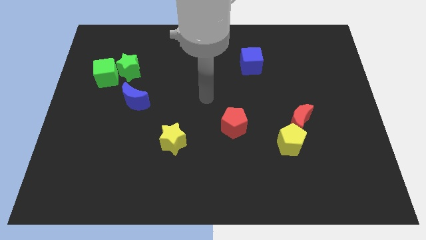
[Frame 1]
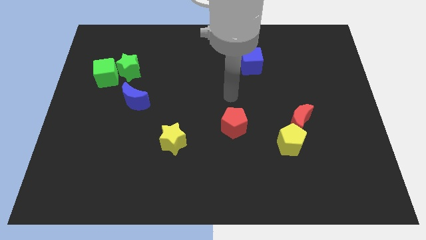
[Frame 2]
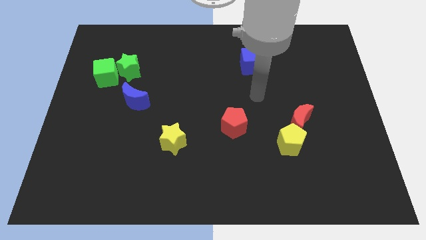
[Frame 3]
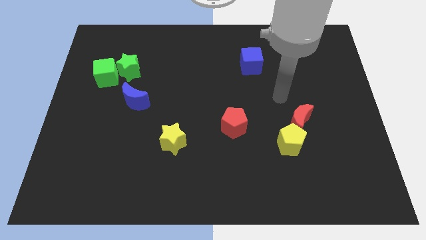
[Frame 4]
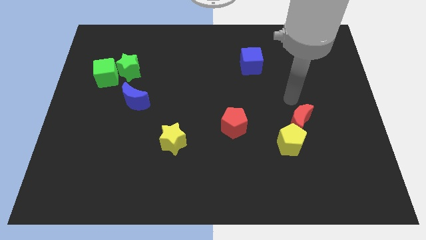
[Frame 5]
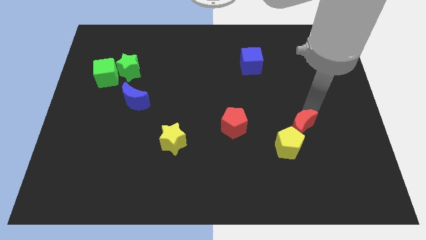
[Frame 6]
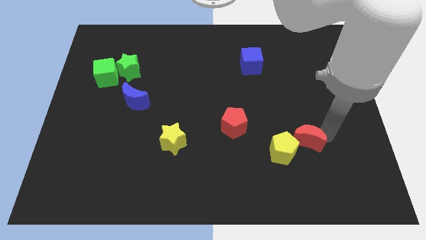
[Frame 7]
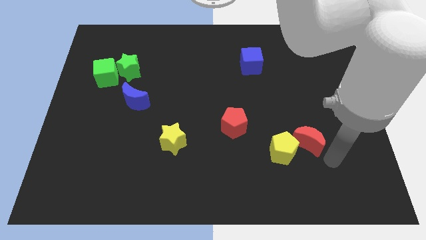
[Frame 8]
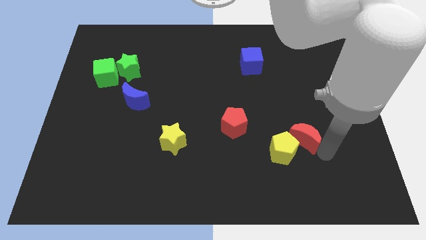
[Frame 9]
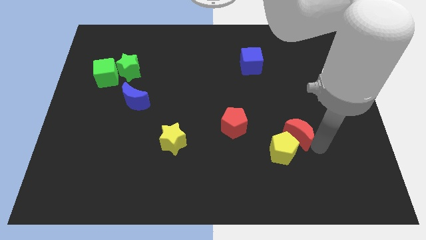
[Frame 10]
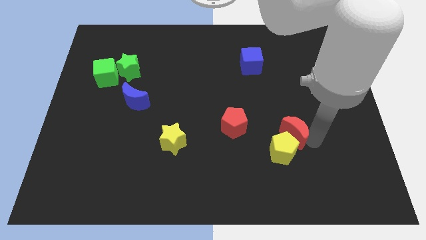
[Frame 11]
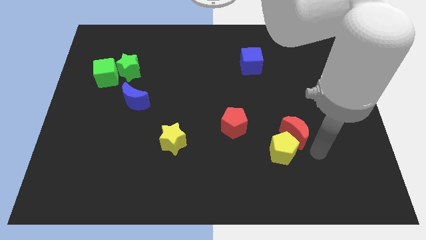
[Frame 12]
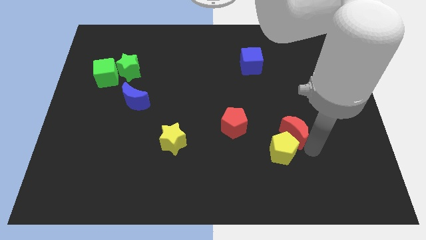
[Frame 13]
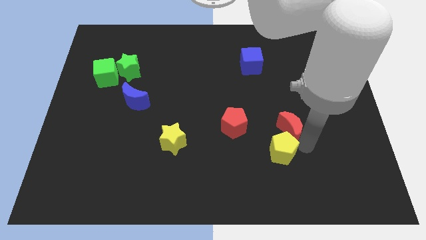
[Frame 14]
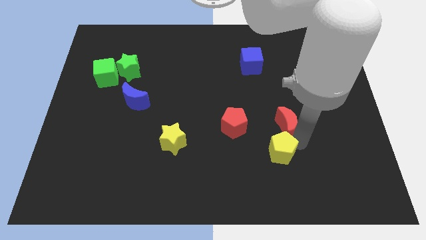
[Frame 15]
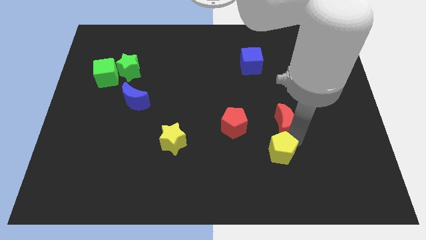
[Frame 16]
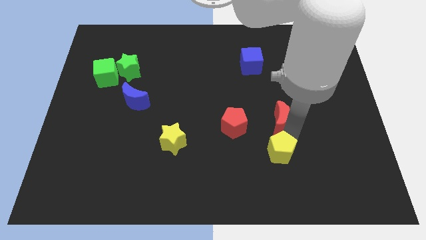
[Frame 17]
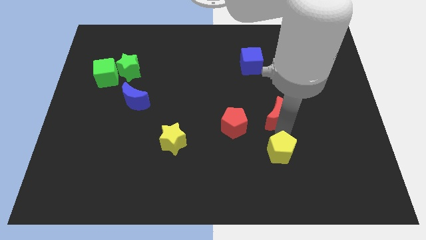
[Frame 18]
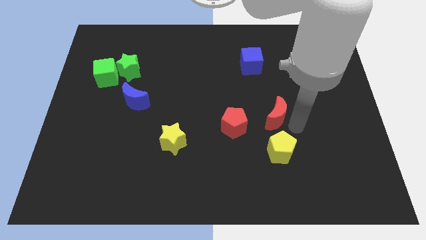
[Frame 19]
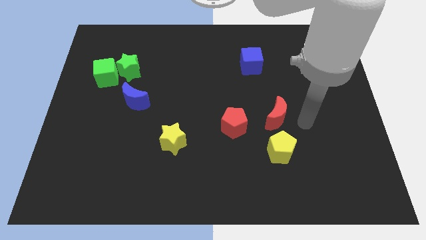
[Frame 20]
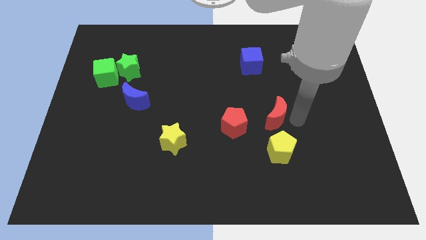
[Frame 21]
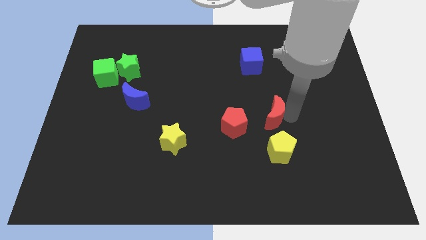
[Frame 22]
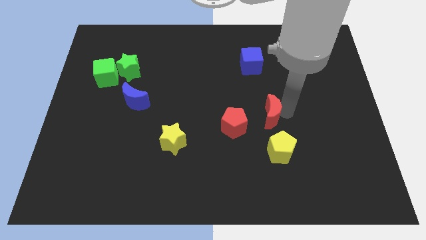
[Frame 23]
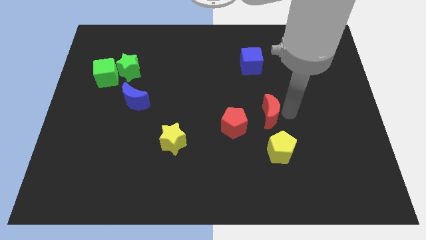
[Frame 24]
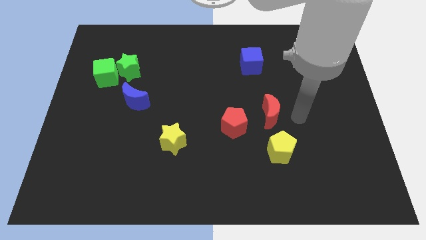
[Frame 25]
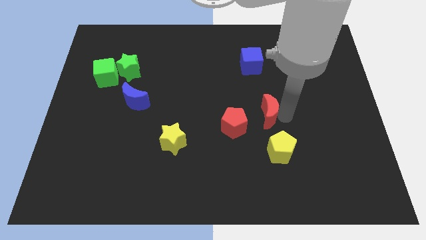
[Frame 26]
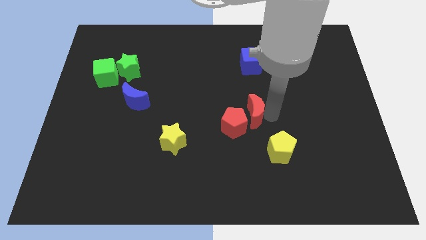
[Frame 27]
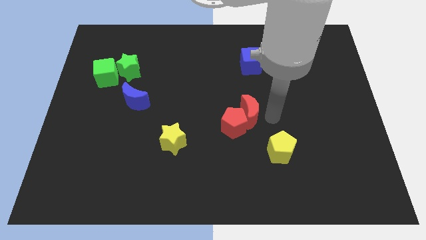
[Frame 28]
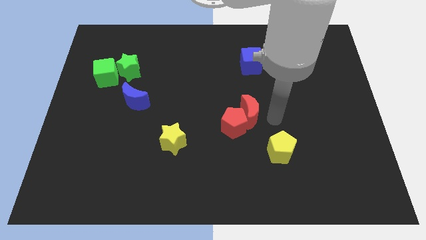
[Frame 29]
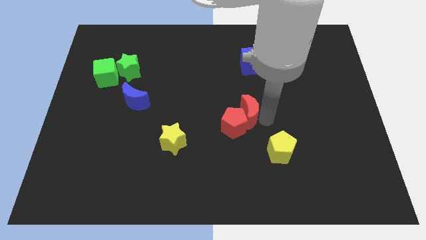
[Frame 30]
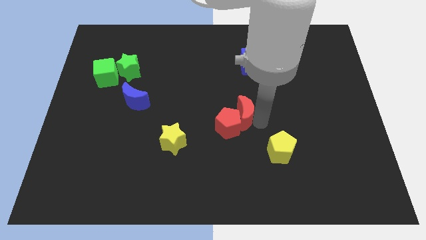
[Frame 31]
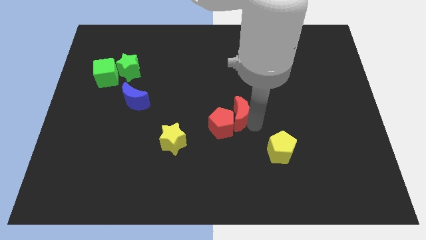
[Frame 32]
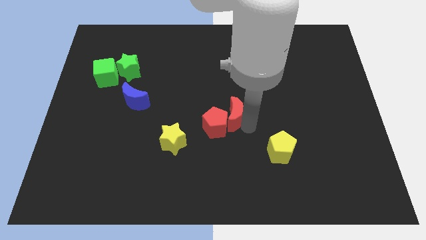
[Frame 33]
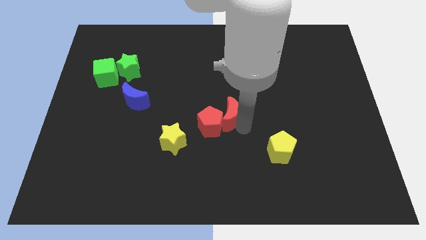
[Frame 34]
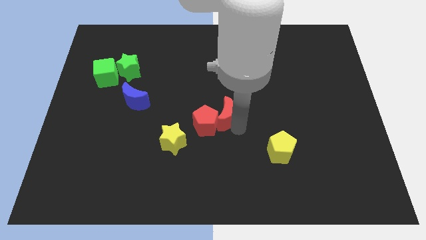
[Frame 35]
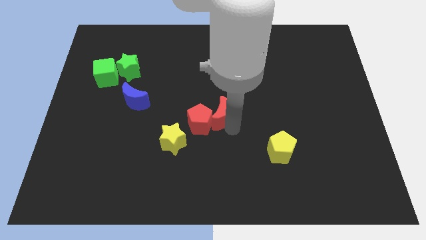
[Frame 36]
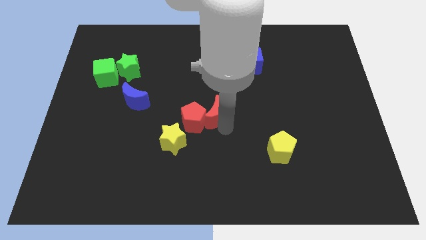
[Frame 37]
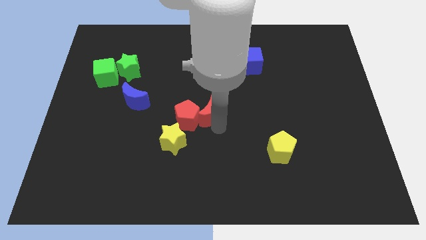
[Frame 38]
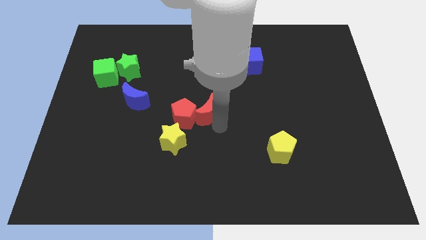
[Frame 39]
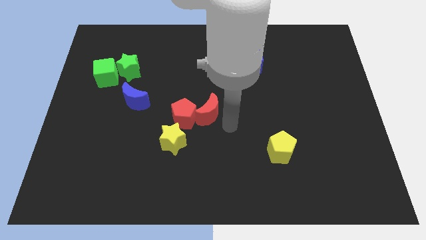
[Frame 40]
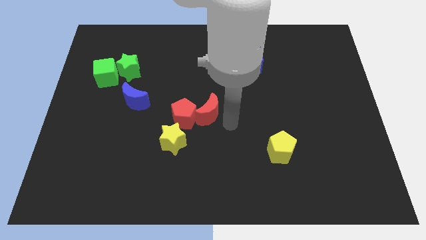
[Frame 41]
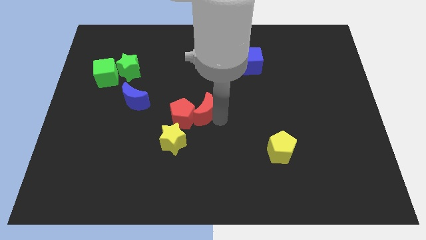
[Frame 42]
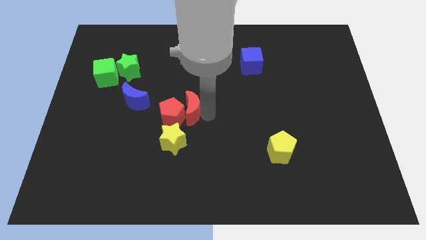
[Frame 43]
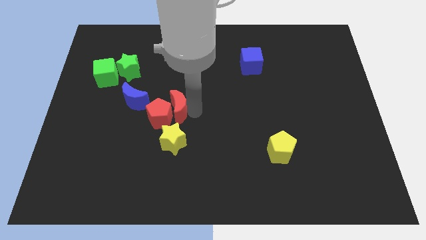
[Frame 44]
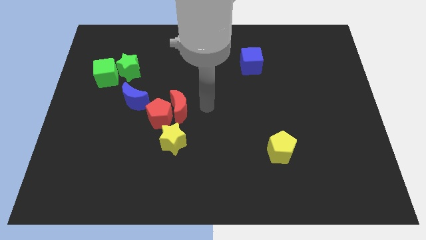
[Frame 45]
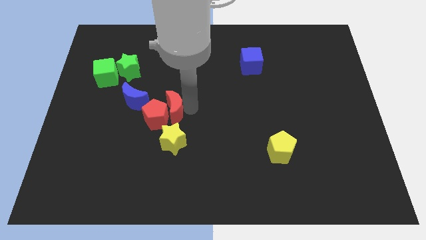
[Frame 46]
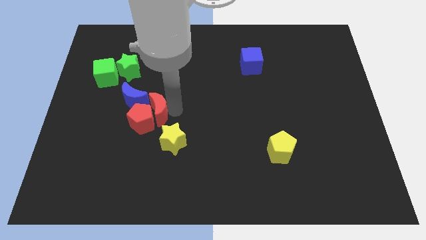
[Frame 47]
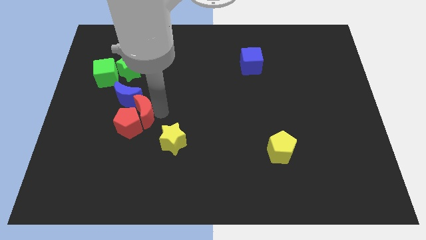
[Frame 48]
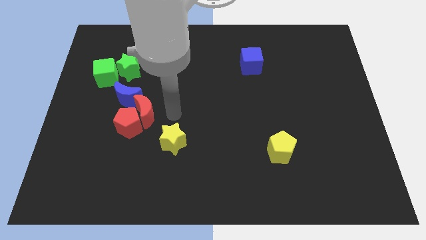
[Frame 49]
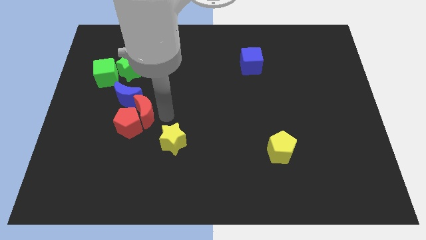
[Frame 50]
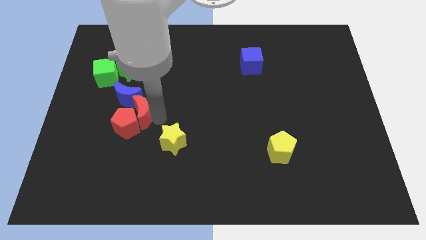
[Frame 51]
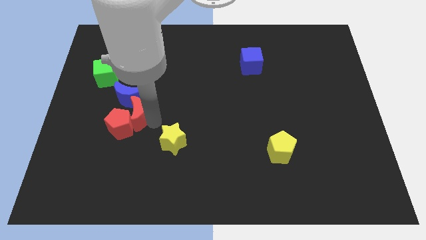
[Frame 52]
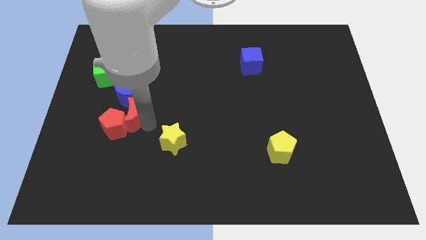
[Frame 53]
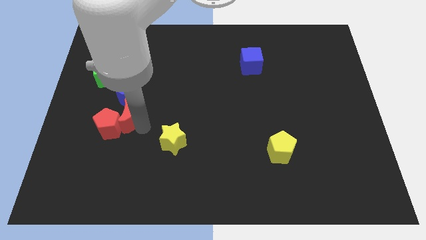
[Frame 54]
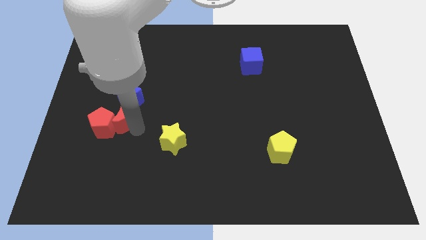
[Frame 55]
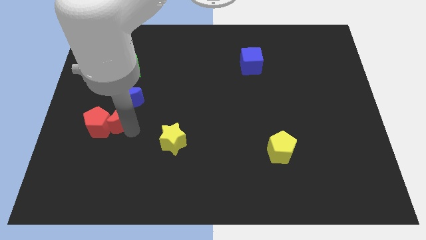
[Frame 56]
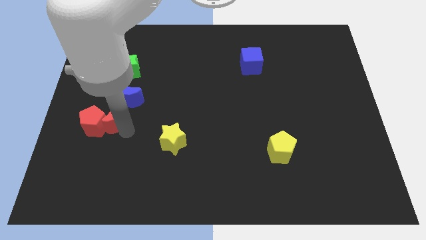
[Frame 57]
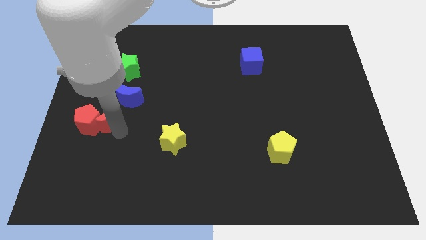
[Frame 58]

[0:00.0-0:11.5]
put the red moon below the green cube

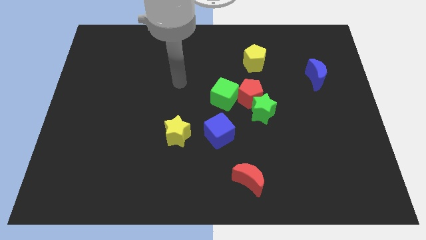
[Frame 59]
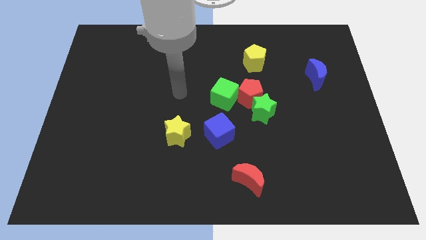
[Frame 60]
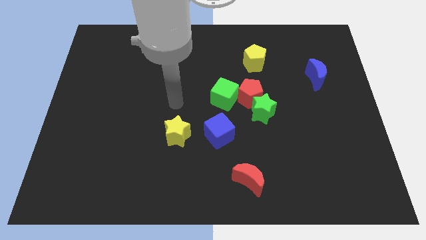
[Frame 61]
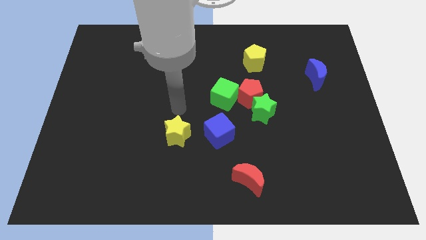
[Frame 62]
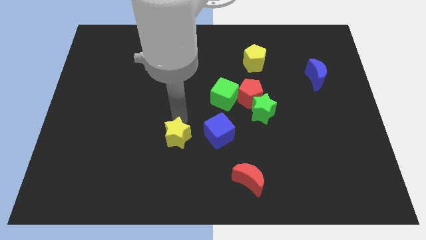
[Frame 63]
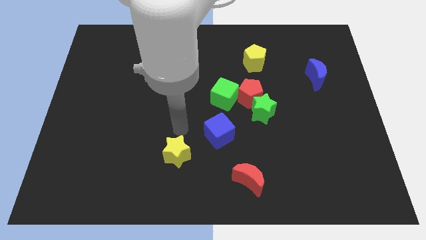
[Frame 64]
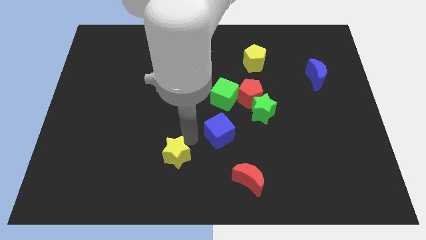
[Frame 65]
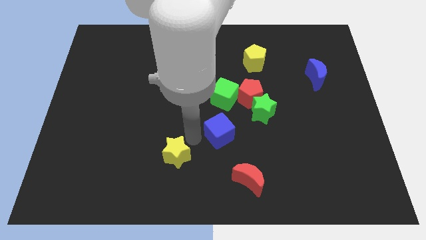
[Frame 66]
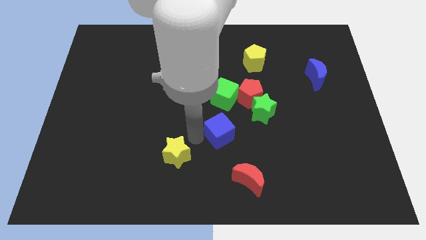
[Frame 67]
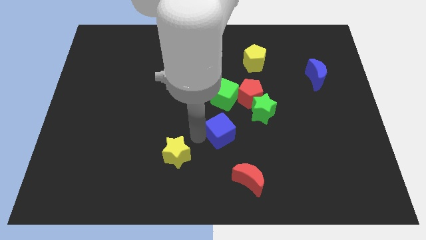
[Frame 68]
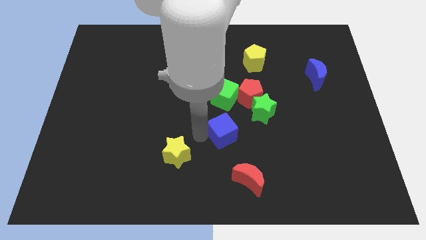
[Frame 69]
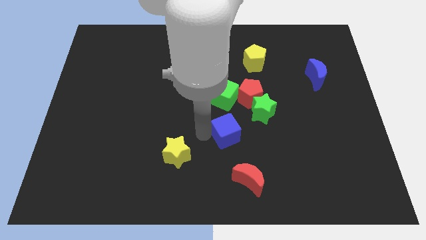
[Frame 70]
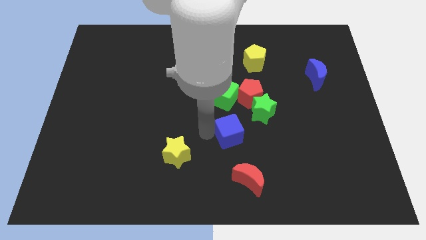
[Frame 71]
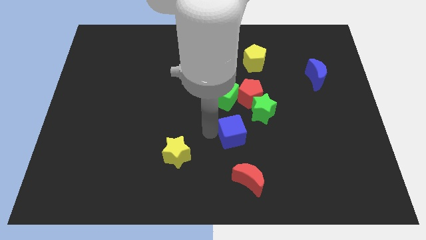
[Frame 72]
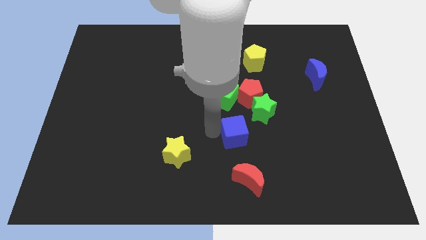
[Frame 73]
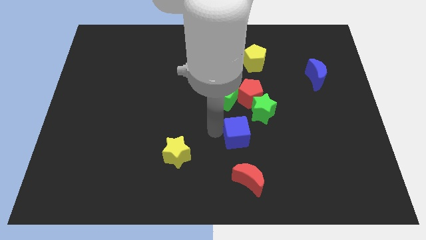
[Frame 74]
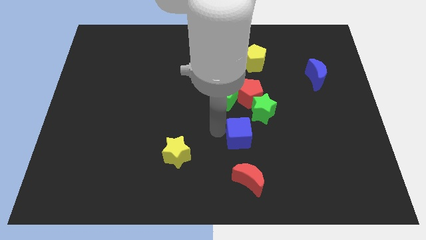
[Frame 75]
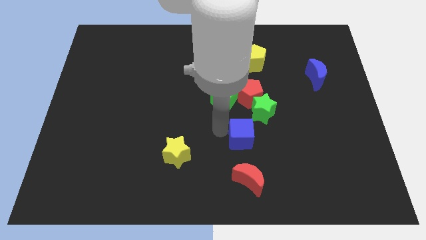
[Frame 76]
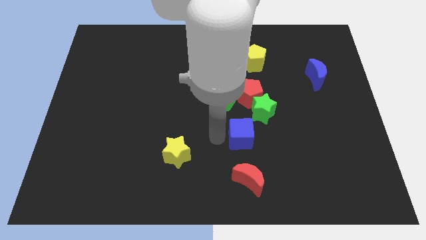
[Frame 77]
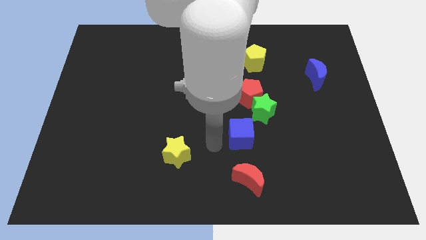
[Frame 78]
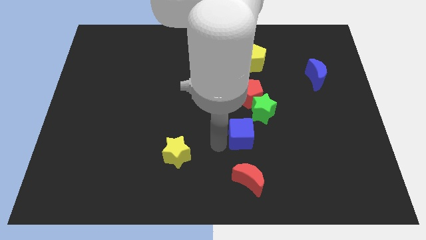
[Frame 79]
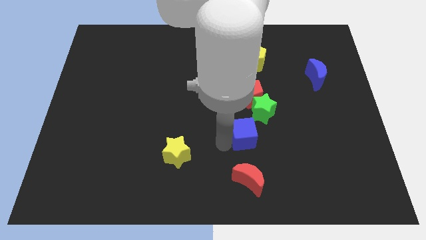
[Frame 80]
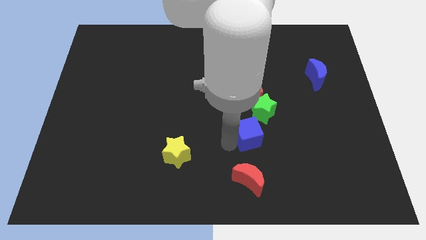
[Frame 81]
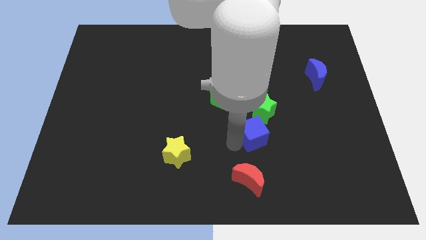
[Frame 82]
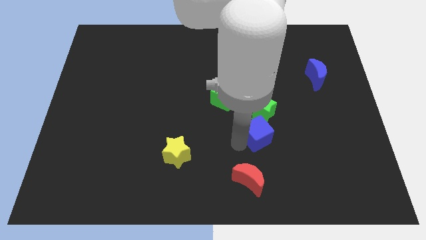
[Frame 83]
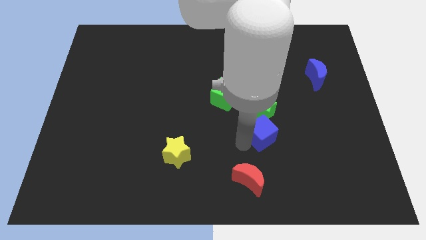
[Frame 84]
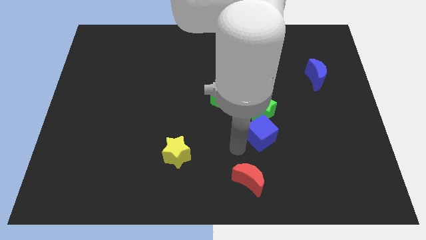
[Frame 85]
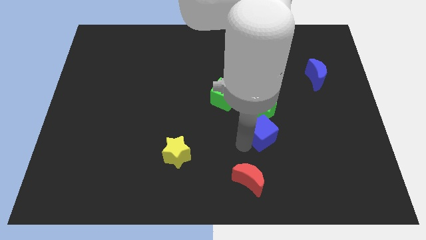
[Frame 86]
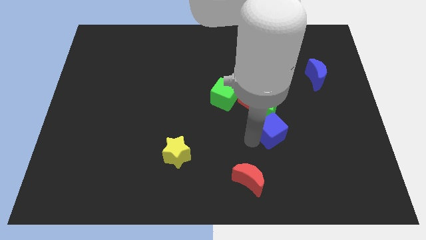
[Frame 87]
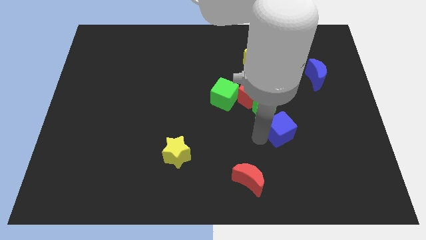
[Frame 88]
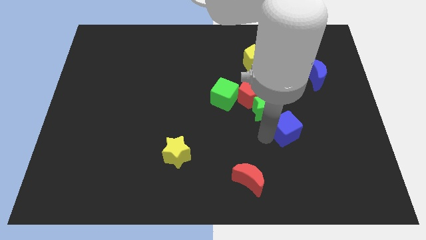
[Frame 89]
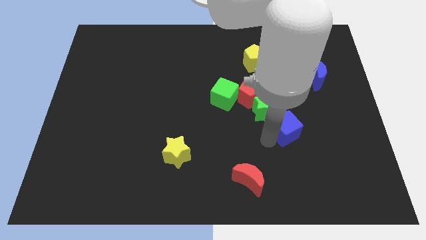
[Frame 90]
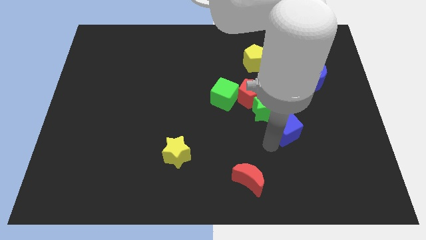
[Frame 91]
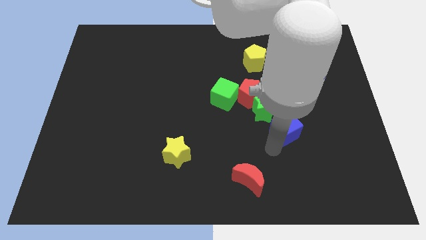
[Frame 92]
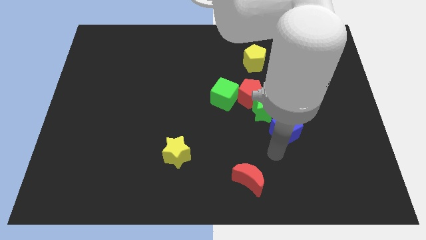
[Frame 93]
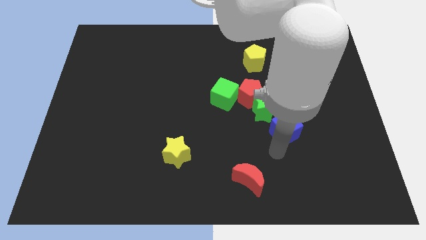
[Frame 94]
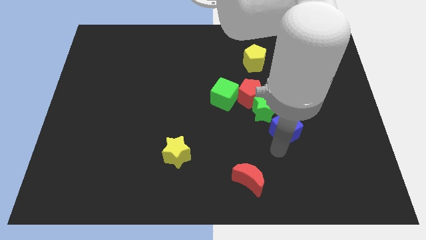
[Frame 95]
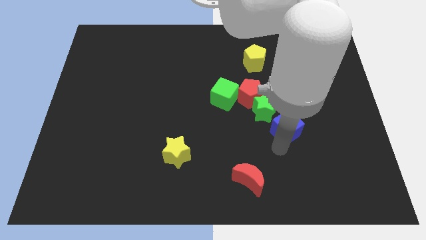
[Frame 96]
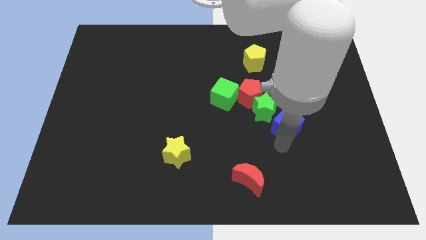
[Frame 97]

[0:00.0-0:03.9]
slide the blue cube to the right of the green star
